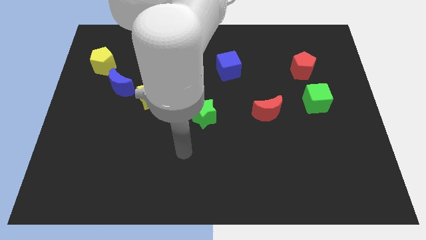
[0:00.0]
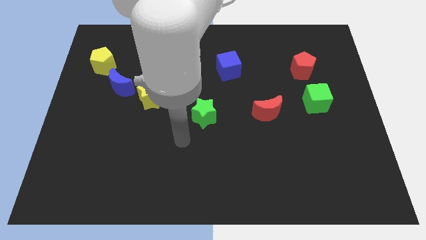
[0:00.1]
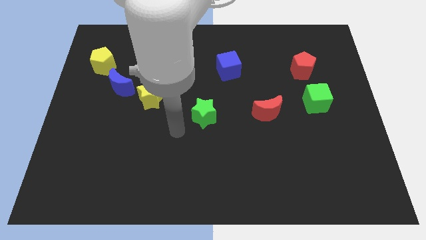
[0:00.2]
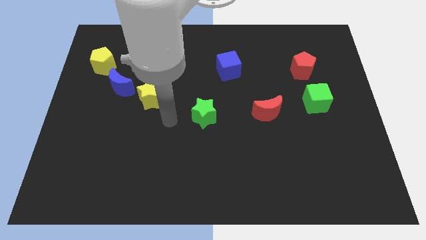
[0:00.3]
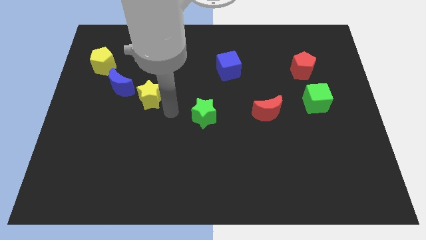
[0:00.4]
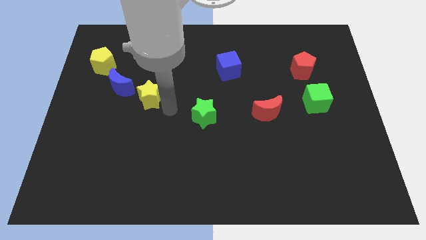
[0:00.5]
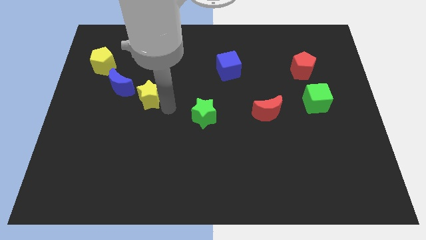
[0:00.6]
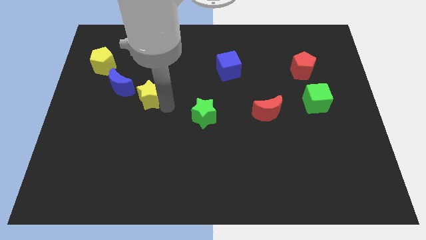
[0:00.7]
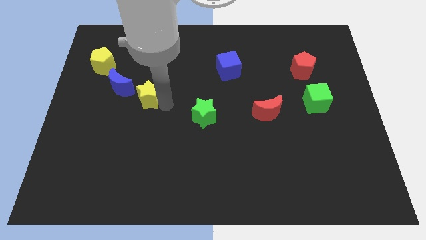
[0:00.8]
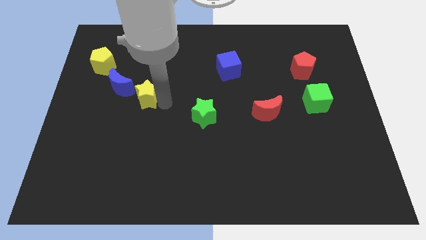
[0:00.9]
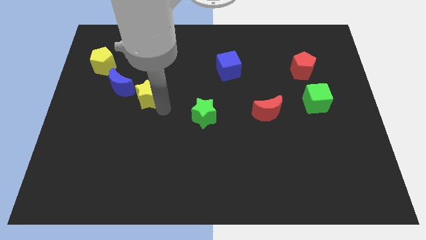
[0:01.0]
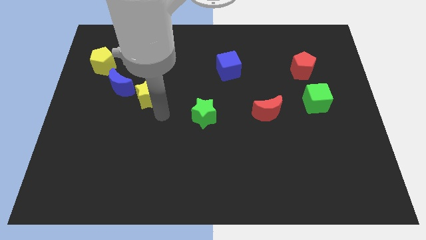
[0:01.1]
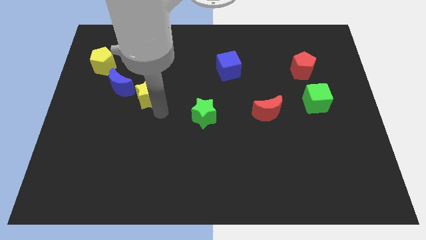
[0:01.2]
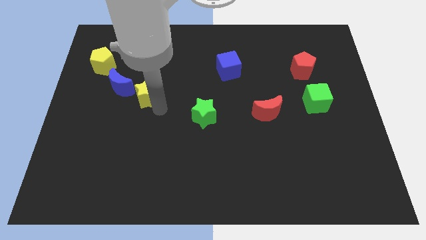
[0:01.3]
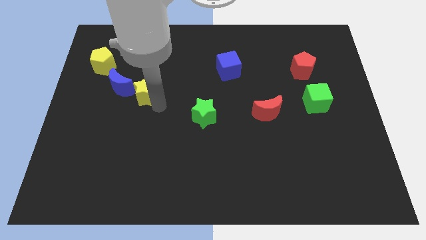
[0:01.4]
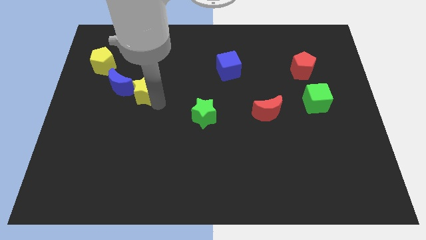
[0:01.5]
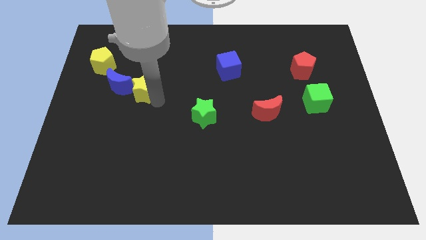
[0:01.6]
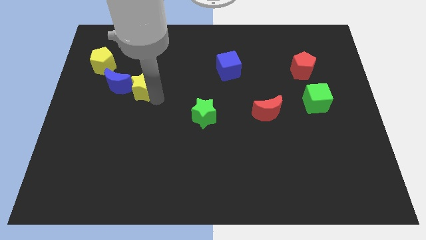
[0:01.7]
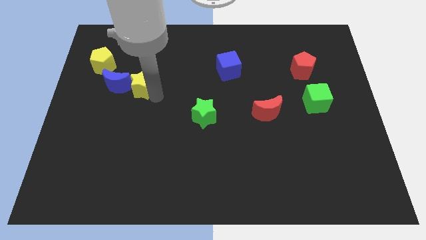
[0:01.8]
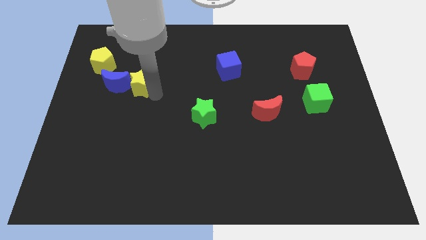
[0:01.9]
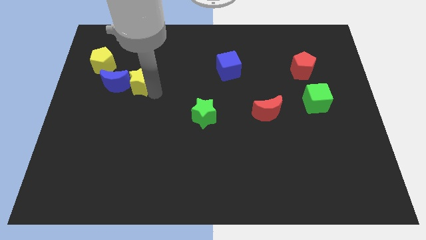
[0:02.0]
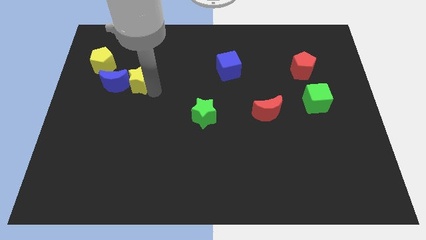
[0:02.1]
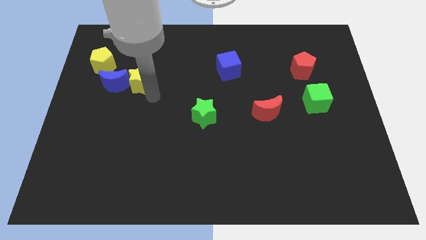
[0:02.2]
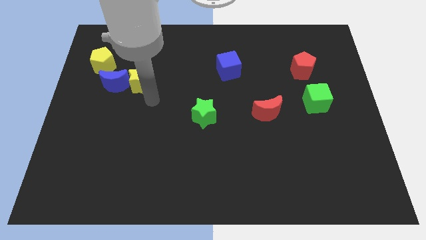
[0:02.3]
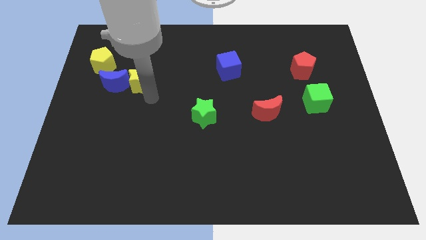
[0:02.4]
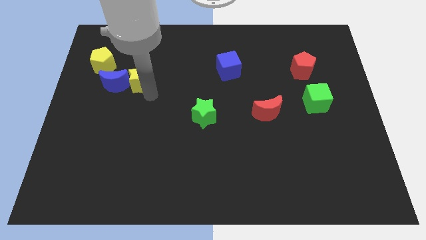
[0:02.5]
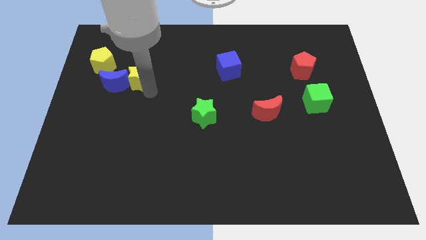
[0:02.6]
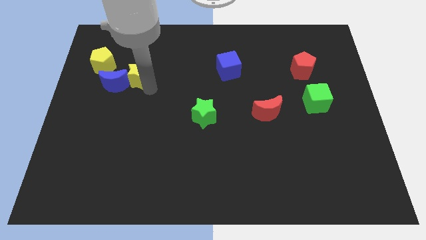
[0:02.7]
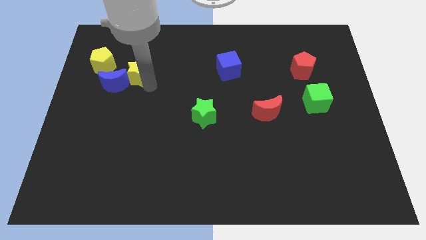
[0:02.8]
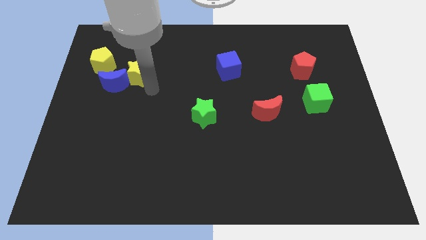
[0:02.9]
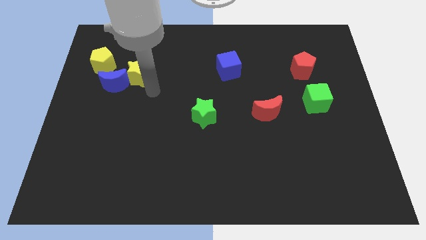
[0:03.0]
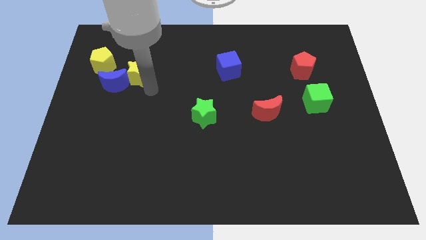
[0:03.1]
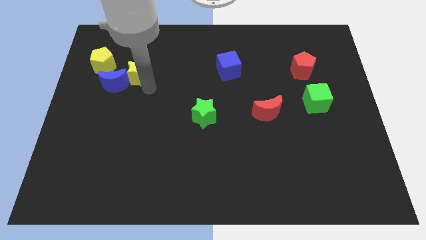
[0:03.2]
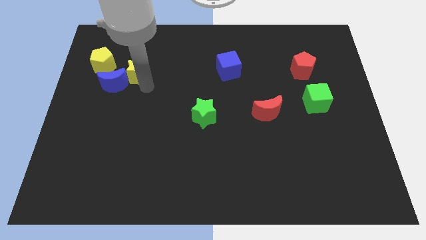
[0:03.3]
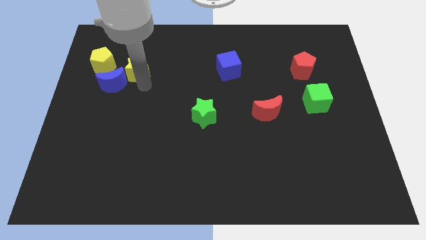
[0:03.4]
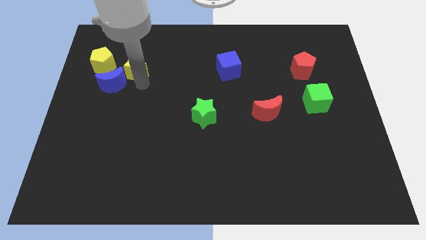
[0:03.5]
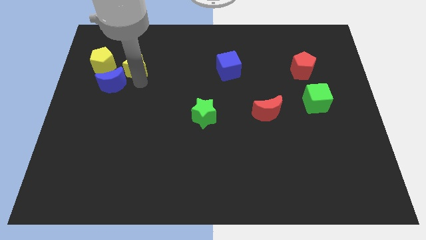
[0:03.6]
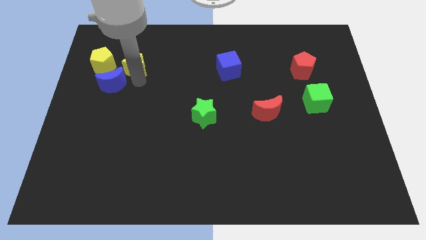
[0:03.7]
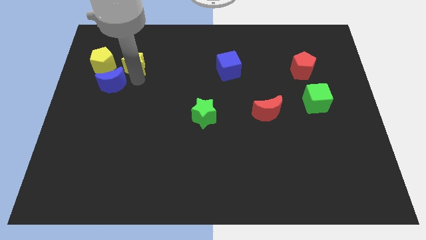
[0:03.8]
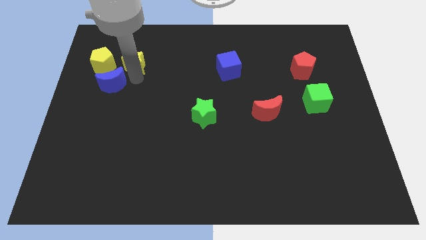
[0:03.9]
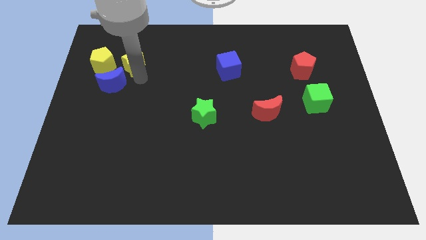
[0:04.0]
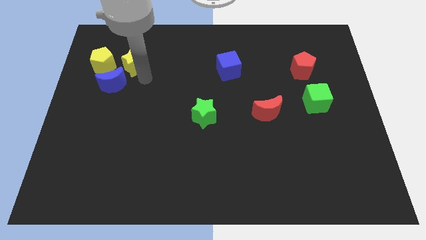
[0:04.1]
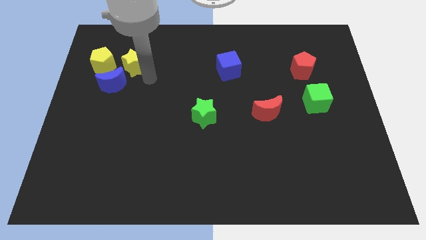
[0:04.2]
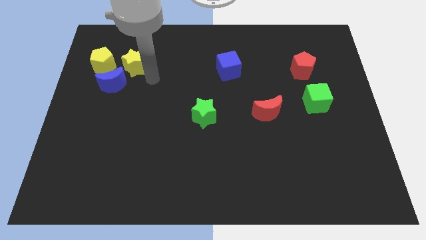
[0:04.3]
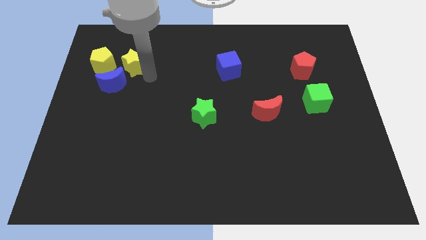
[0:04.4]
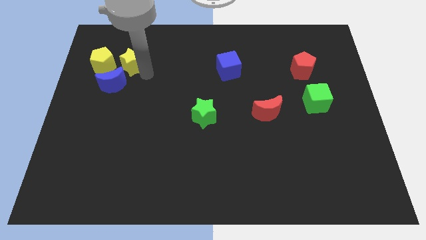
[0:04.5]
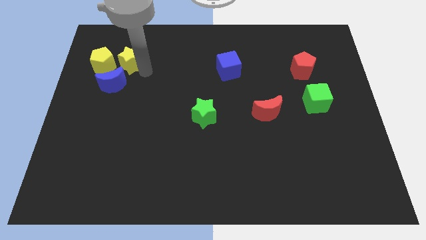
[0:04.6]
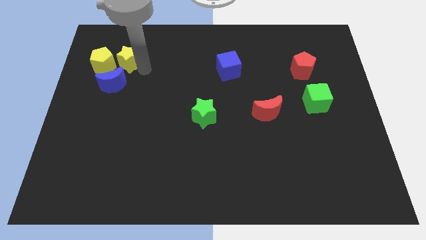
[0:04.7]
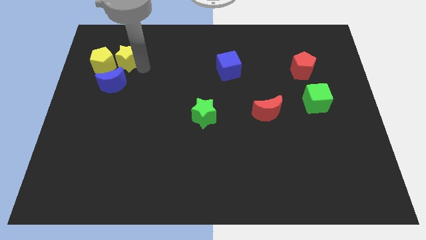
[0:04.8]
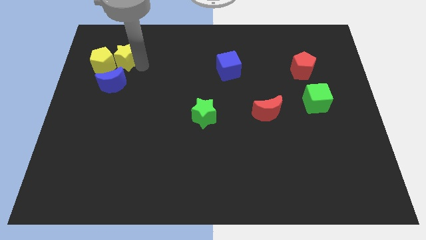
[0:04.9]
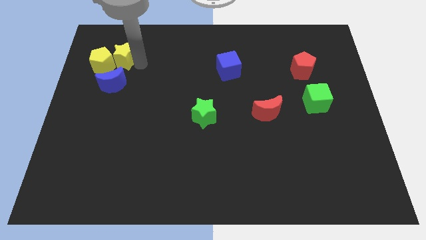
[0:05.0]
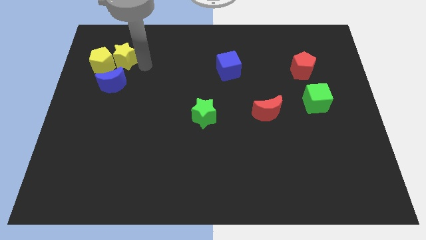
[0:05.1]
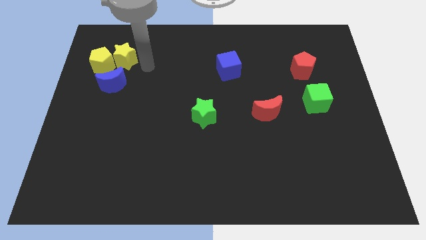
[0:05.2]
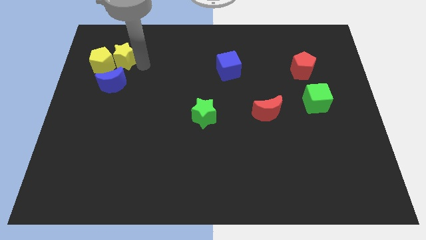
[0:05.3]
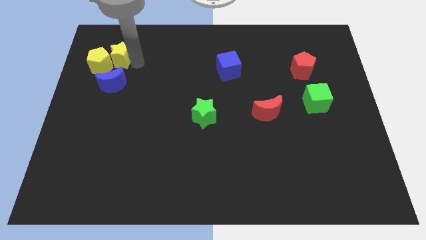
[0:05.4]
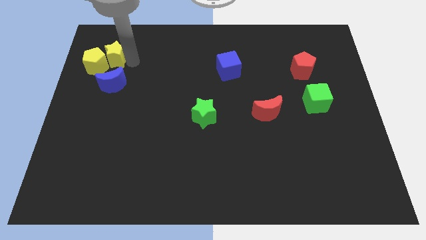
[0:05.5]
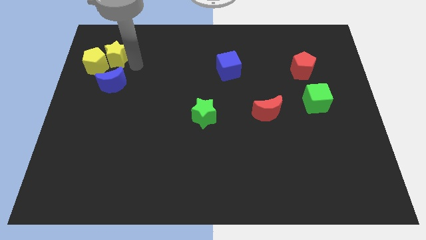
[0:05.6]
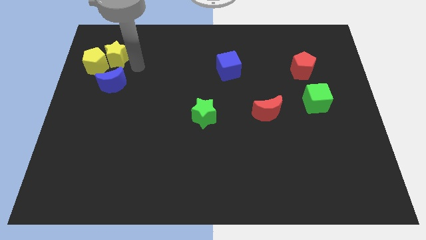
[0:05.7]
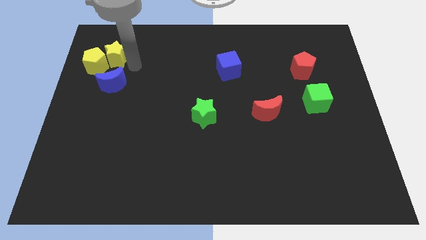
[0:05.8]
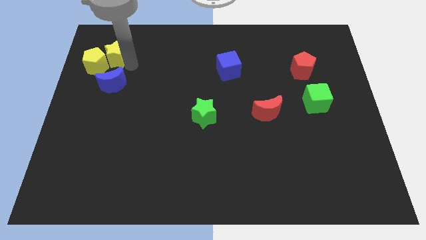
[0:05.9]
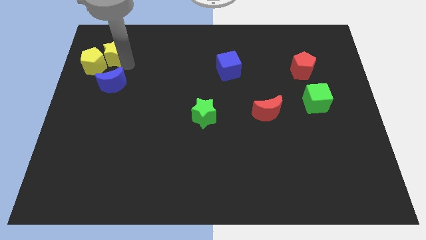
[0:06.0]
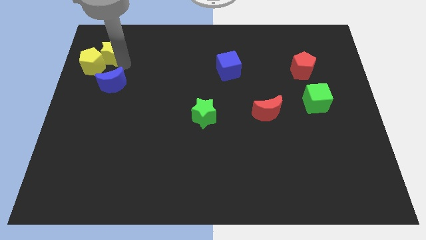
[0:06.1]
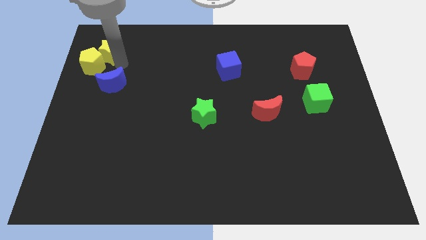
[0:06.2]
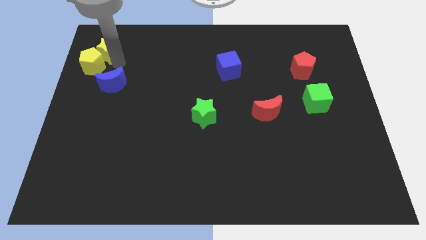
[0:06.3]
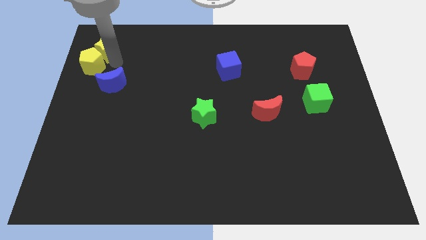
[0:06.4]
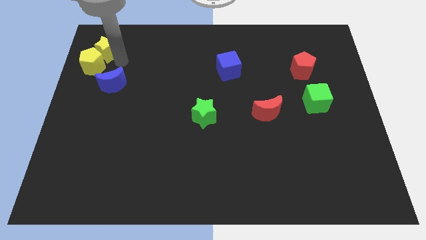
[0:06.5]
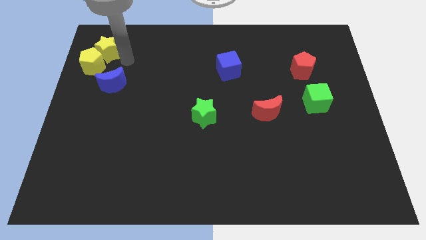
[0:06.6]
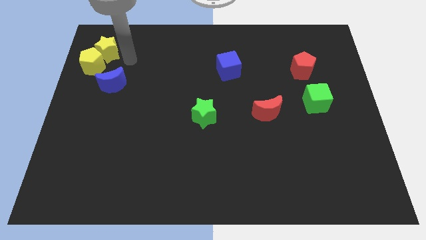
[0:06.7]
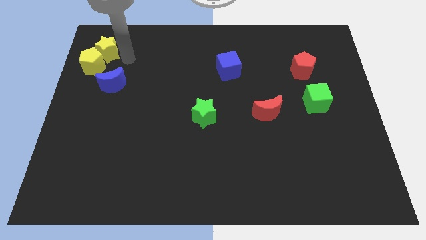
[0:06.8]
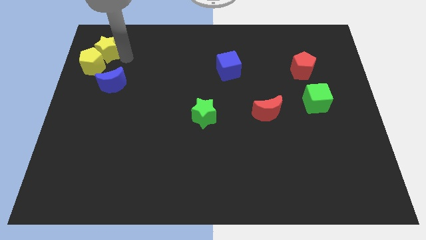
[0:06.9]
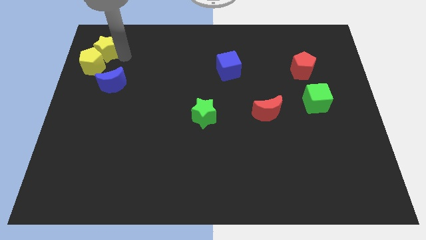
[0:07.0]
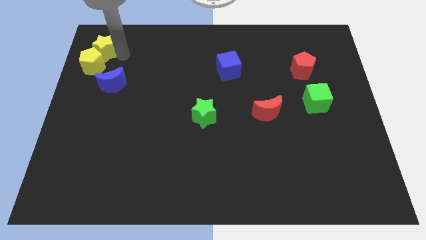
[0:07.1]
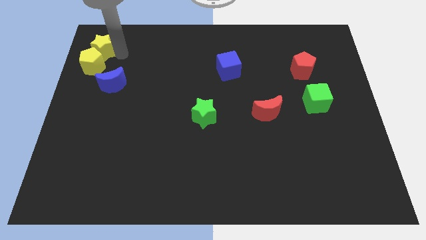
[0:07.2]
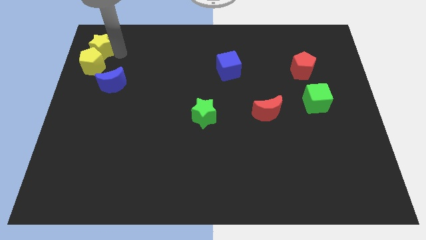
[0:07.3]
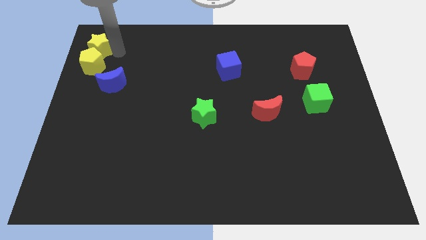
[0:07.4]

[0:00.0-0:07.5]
put the yellow star to the upper left corner
